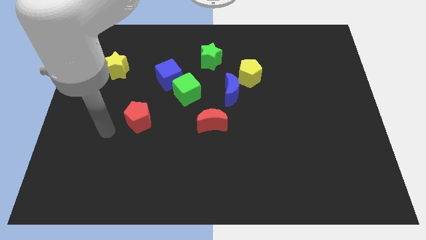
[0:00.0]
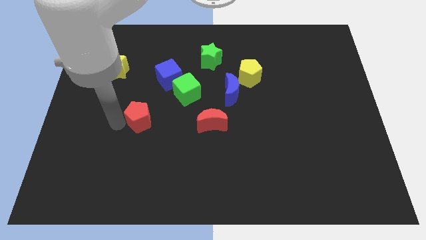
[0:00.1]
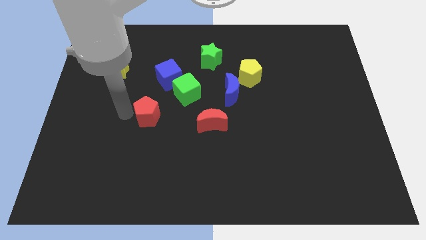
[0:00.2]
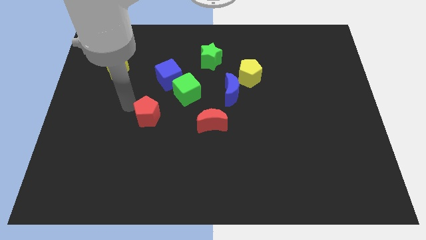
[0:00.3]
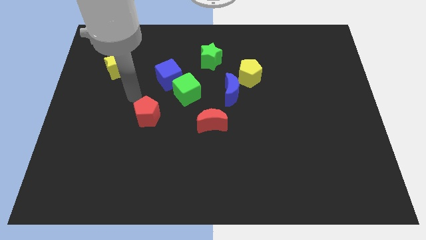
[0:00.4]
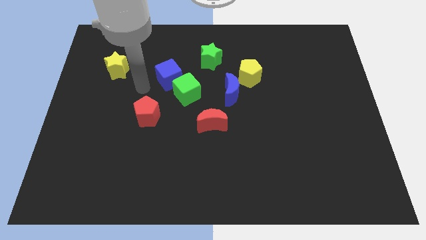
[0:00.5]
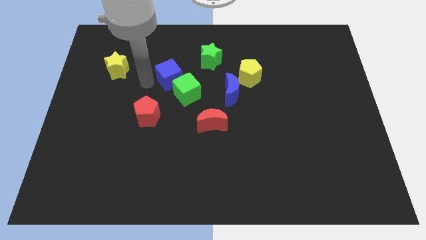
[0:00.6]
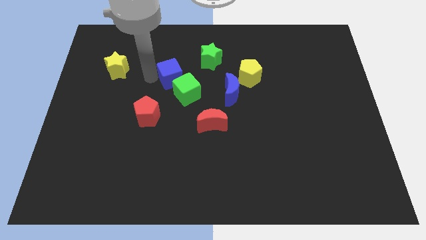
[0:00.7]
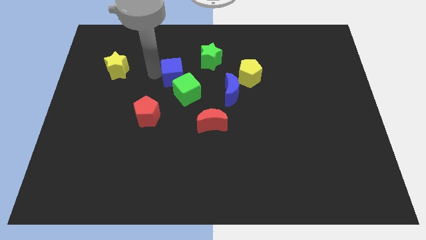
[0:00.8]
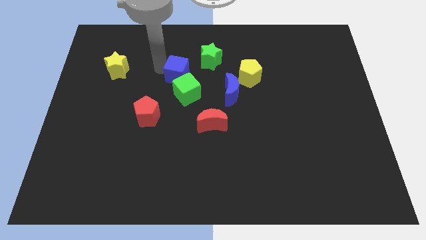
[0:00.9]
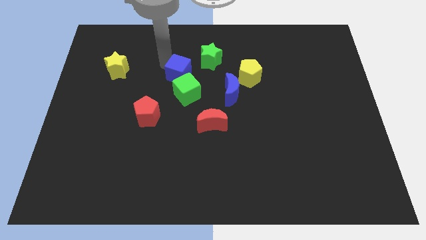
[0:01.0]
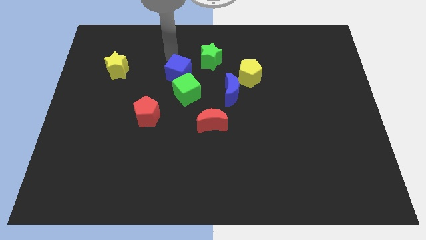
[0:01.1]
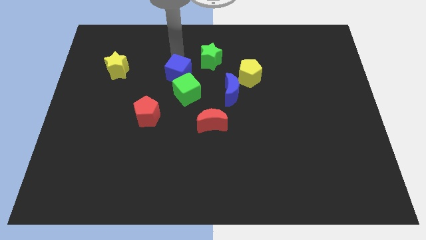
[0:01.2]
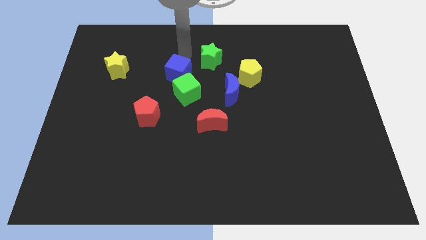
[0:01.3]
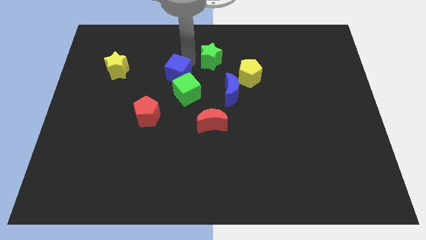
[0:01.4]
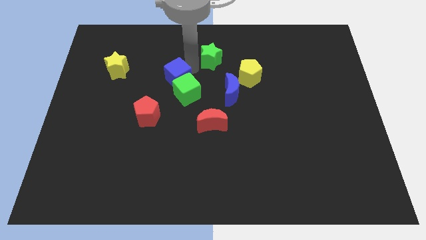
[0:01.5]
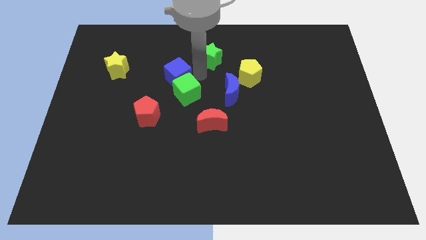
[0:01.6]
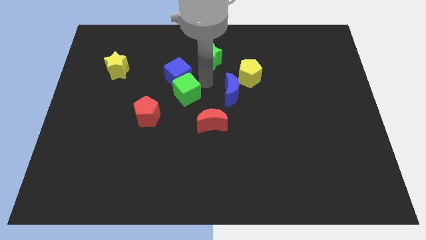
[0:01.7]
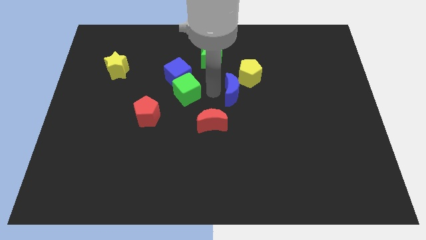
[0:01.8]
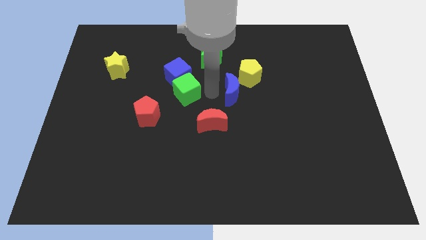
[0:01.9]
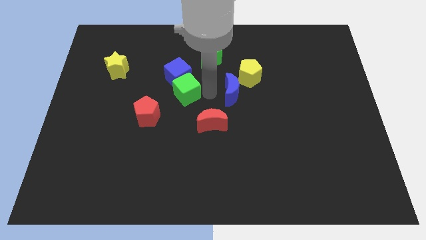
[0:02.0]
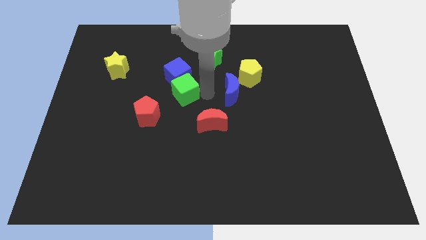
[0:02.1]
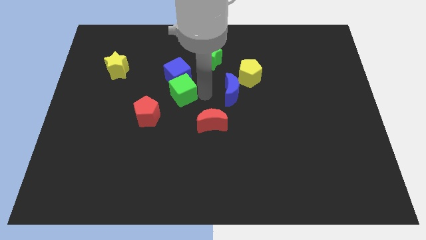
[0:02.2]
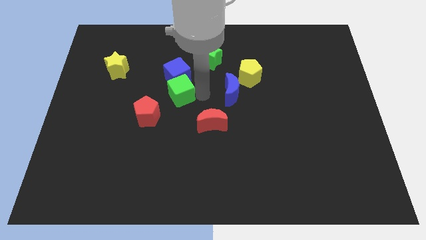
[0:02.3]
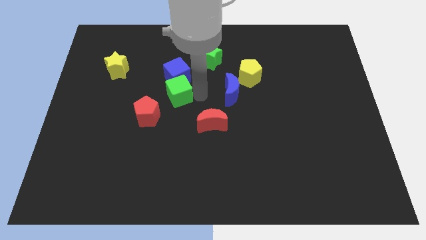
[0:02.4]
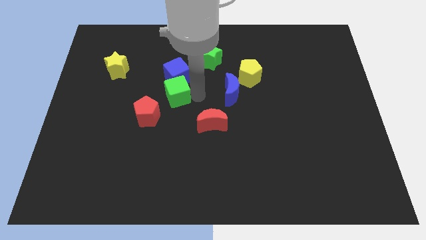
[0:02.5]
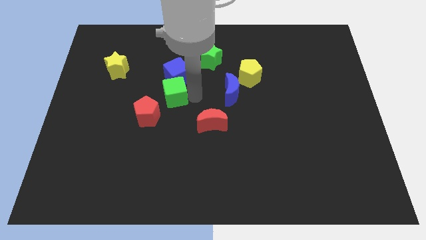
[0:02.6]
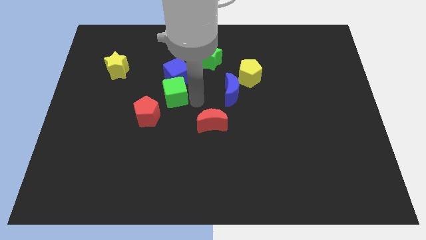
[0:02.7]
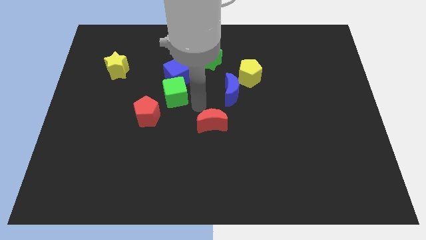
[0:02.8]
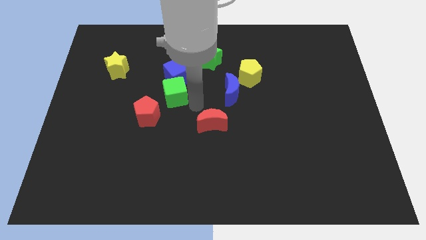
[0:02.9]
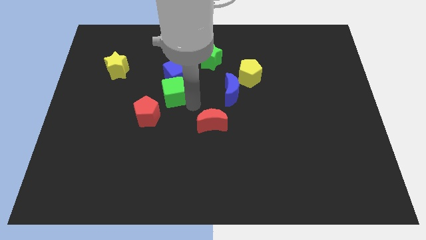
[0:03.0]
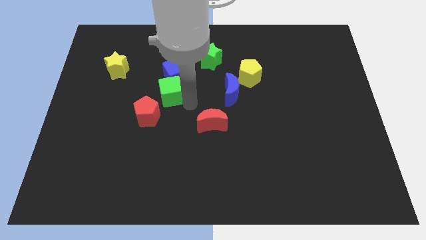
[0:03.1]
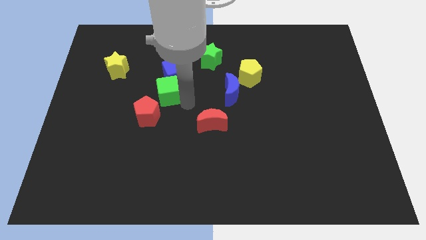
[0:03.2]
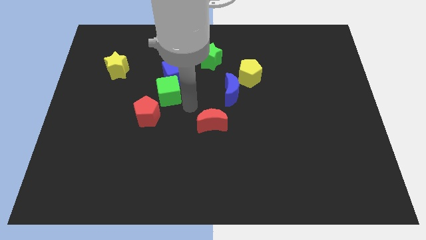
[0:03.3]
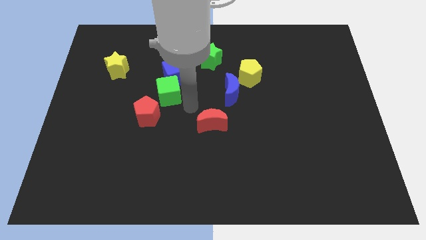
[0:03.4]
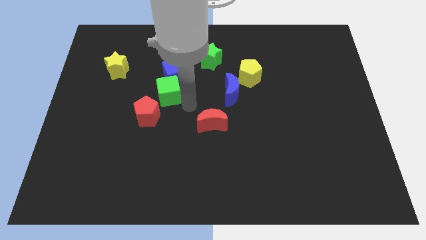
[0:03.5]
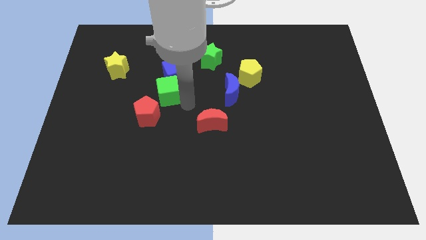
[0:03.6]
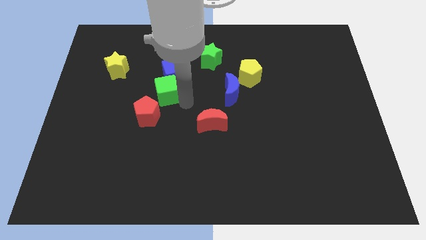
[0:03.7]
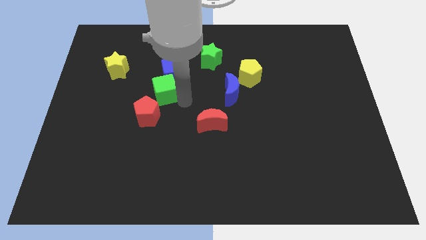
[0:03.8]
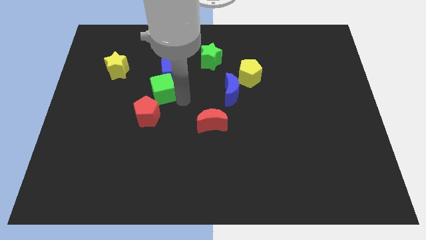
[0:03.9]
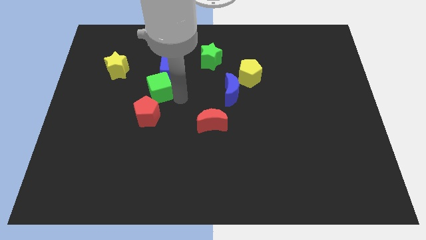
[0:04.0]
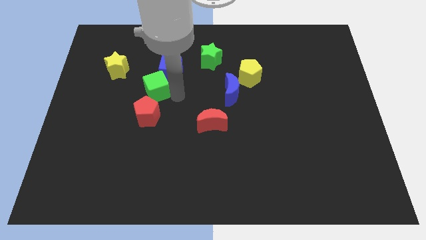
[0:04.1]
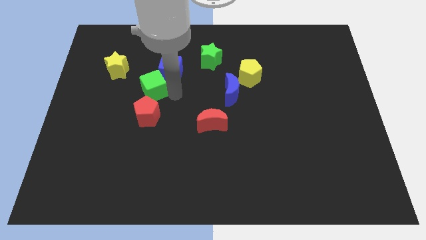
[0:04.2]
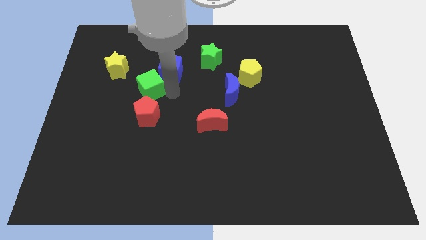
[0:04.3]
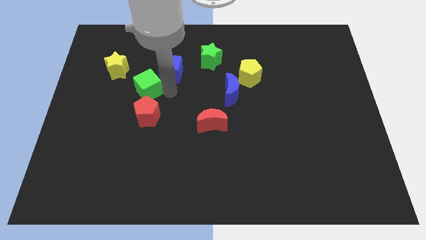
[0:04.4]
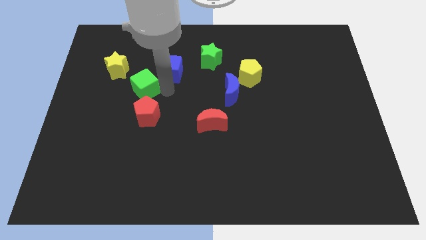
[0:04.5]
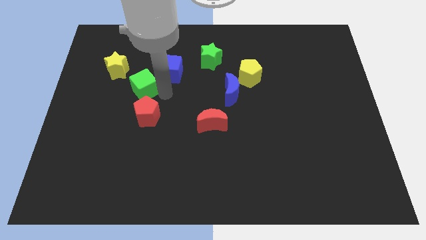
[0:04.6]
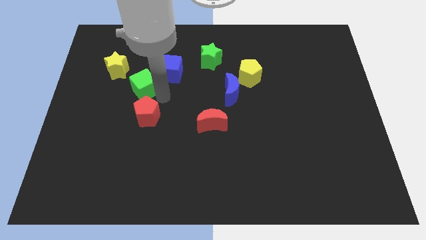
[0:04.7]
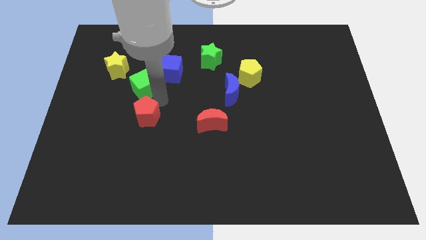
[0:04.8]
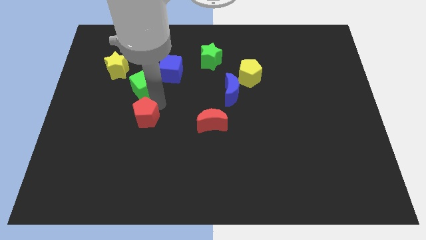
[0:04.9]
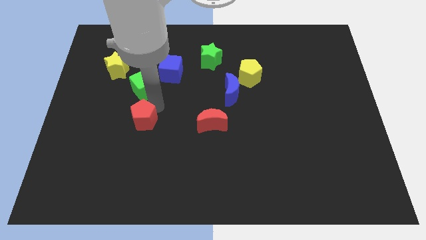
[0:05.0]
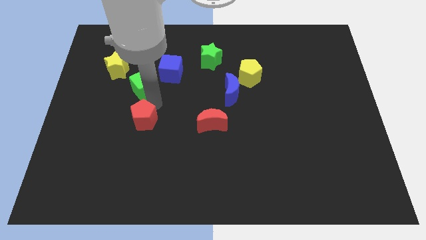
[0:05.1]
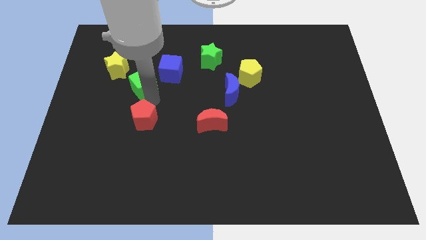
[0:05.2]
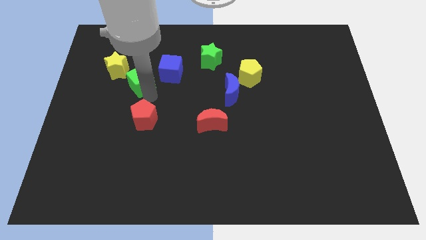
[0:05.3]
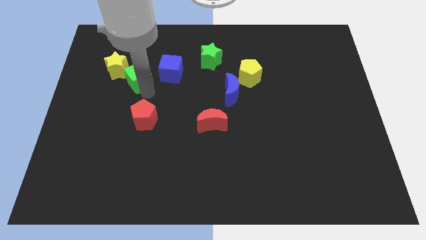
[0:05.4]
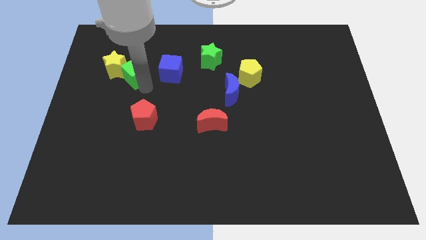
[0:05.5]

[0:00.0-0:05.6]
move the green cube to the yellow star

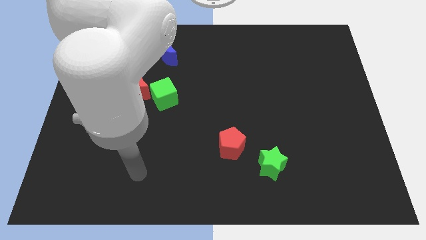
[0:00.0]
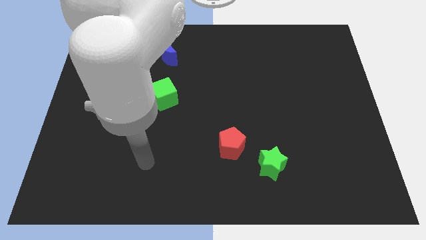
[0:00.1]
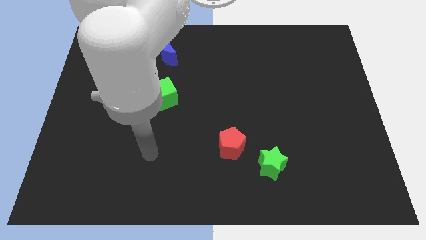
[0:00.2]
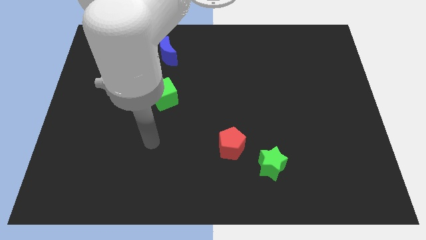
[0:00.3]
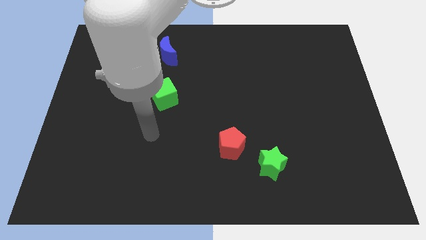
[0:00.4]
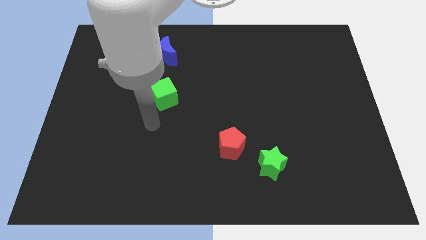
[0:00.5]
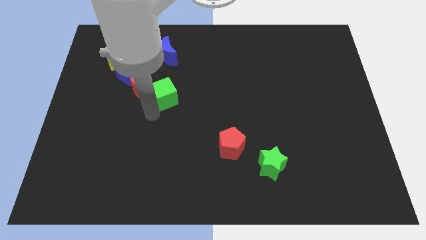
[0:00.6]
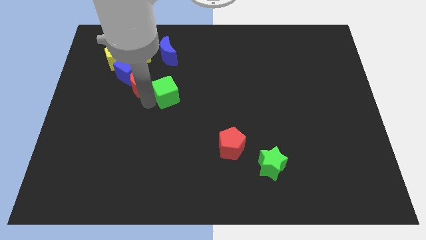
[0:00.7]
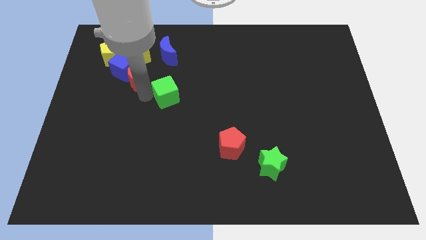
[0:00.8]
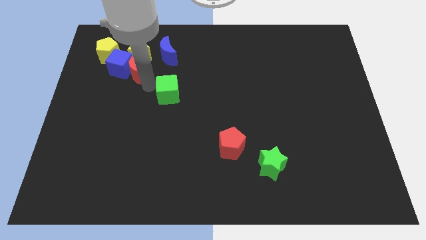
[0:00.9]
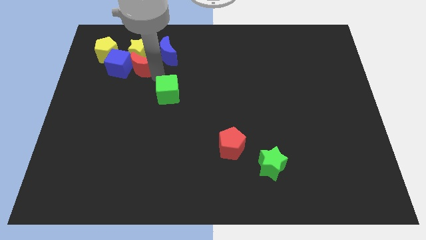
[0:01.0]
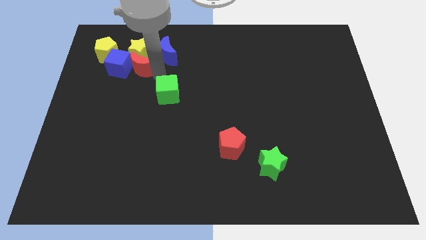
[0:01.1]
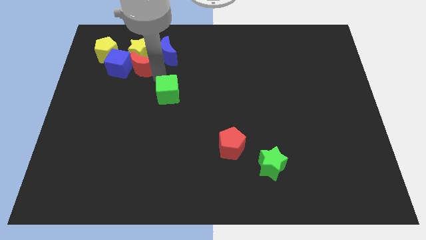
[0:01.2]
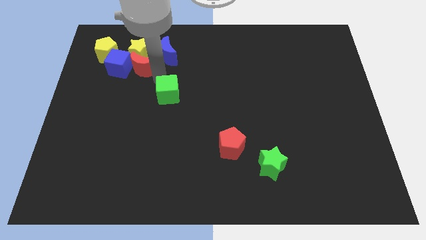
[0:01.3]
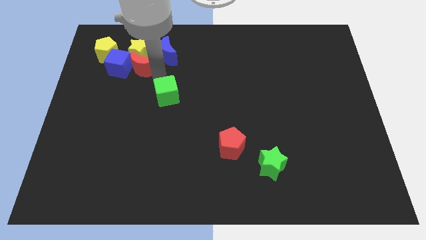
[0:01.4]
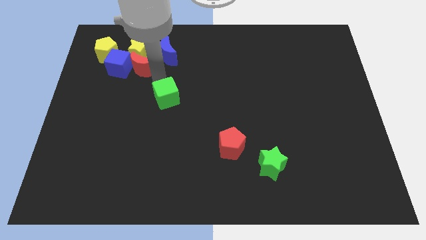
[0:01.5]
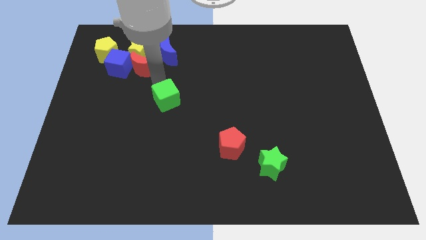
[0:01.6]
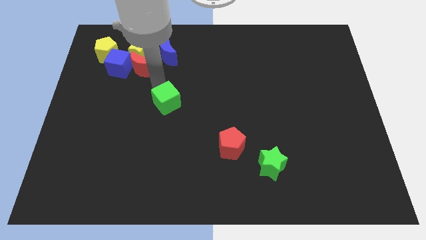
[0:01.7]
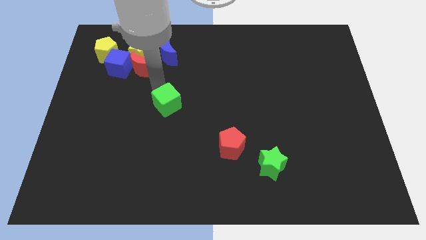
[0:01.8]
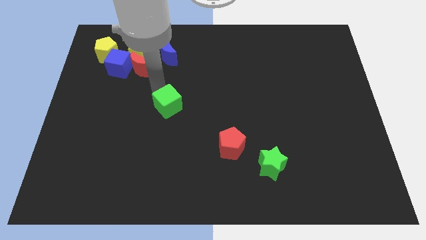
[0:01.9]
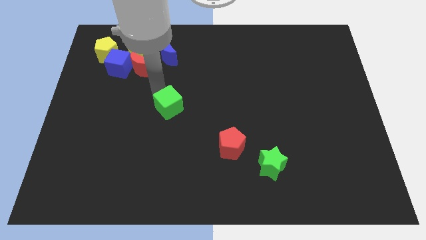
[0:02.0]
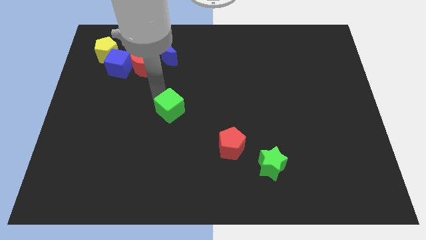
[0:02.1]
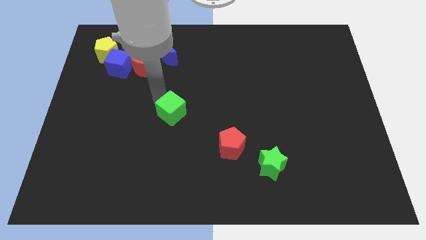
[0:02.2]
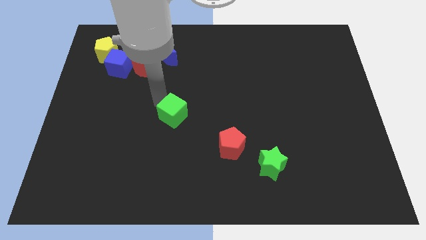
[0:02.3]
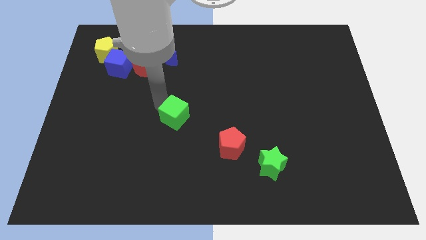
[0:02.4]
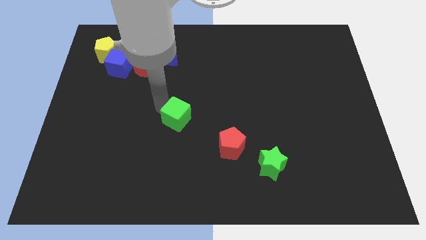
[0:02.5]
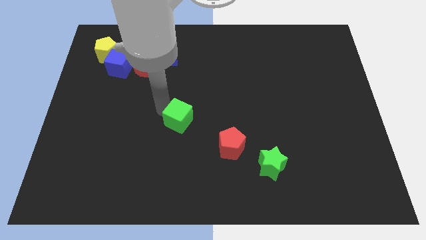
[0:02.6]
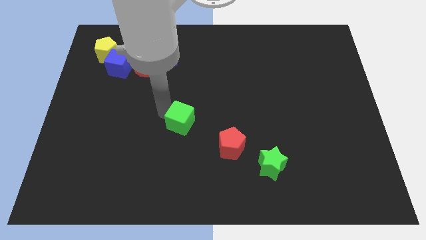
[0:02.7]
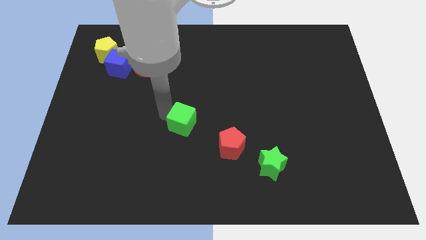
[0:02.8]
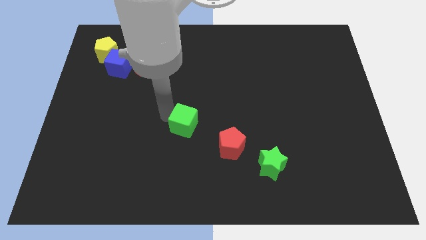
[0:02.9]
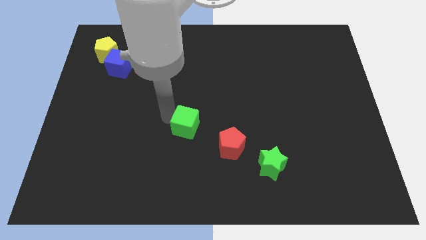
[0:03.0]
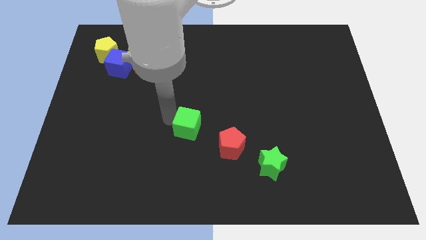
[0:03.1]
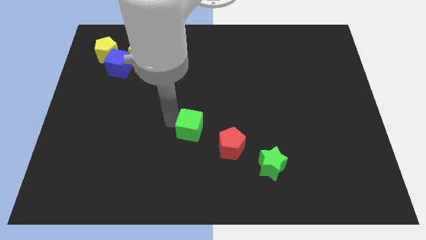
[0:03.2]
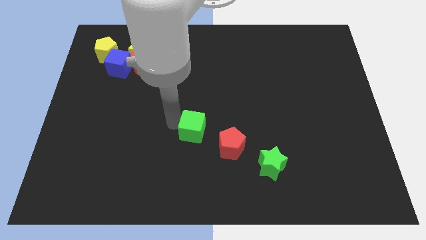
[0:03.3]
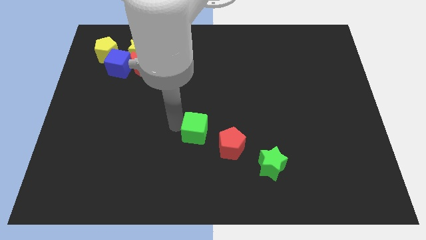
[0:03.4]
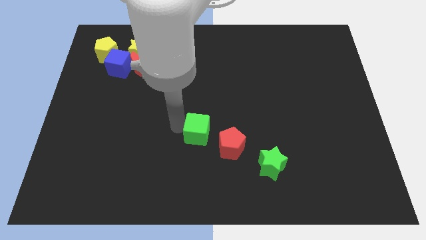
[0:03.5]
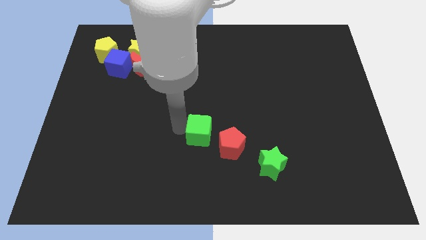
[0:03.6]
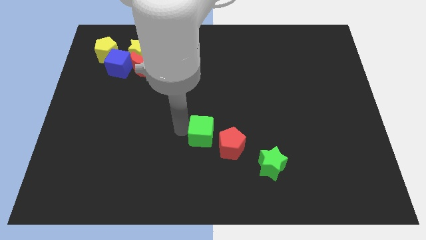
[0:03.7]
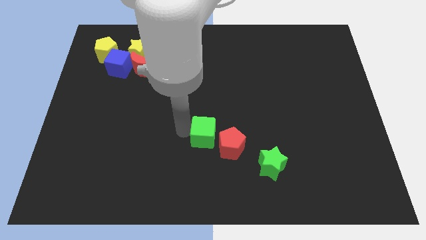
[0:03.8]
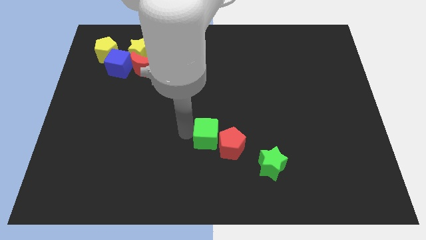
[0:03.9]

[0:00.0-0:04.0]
put the green cube close to the red pentagon
